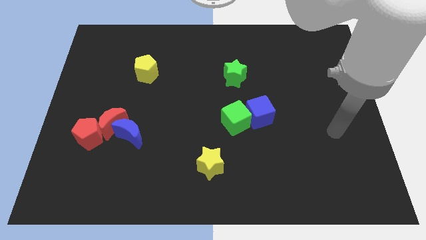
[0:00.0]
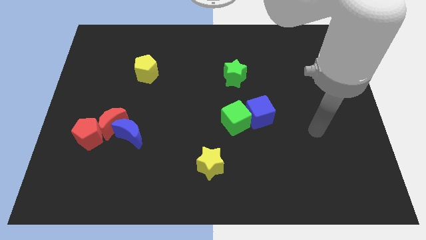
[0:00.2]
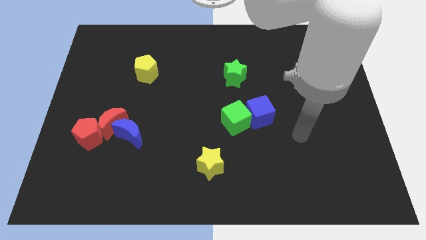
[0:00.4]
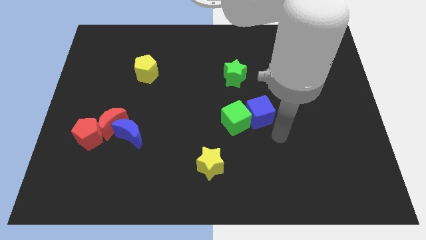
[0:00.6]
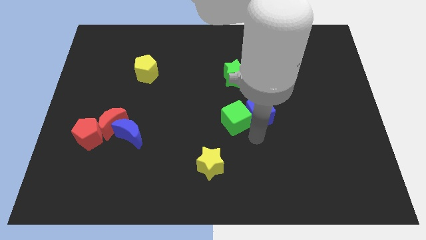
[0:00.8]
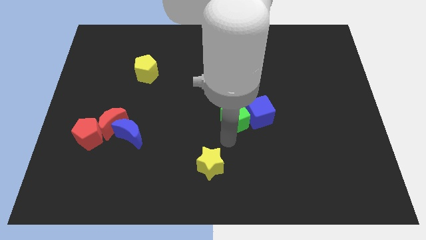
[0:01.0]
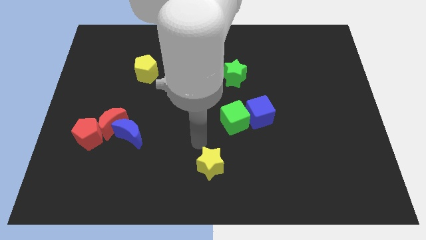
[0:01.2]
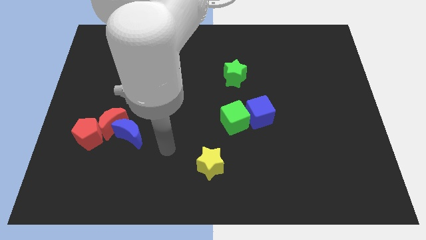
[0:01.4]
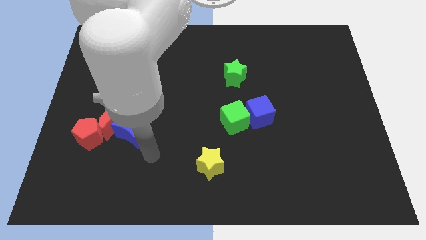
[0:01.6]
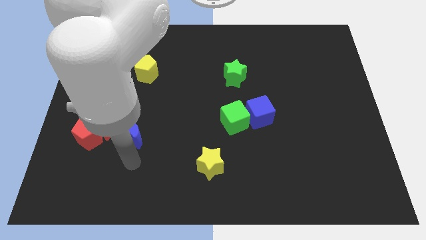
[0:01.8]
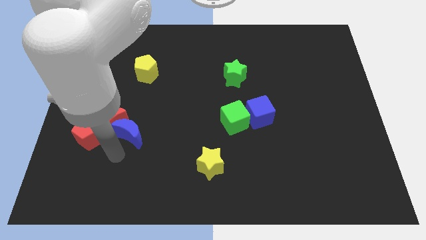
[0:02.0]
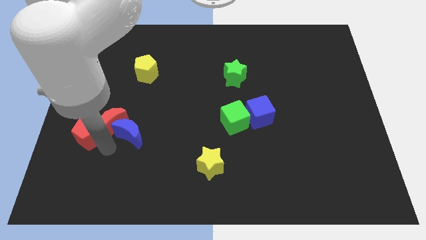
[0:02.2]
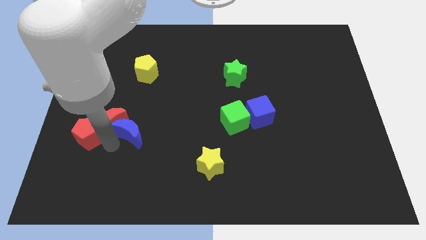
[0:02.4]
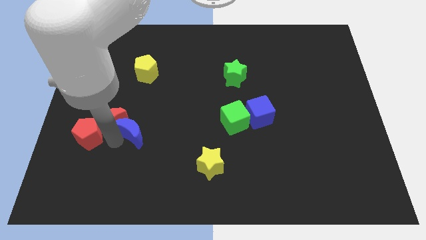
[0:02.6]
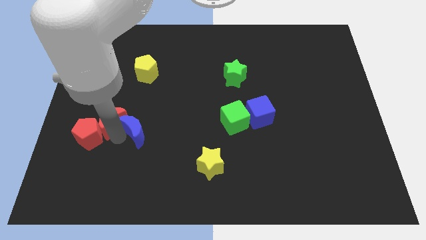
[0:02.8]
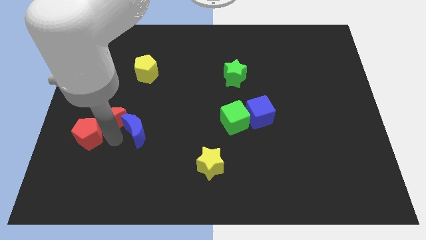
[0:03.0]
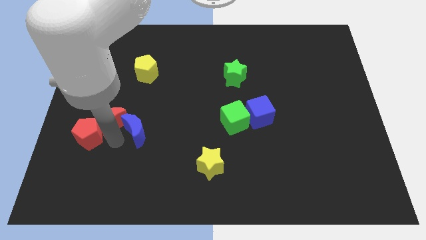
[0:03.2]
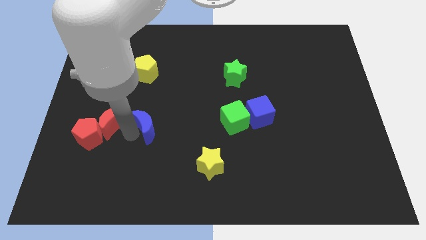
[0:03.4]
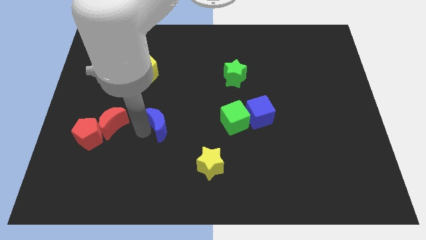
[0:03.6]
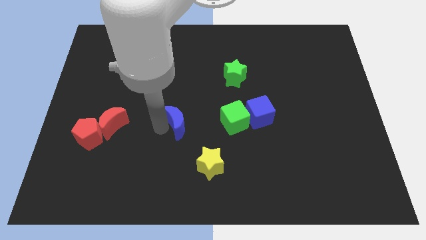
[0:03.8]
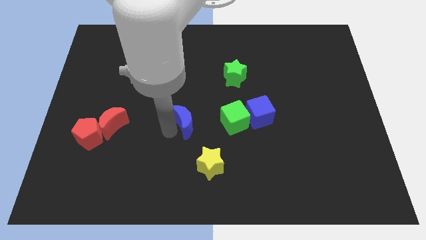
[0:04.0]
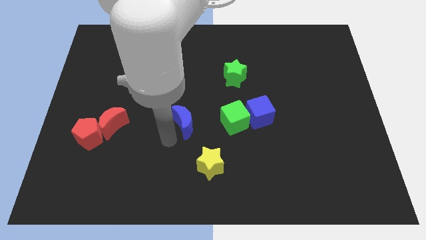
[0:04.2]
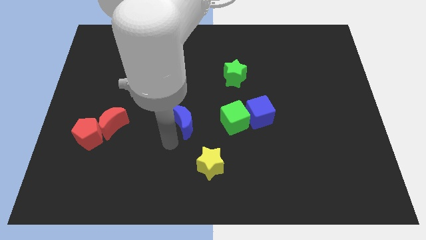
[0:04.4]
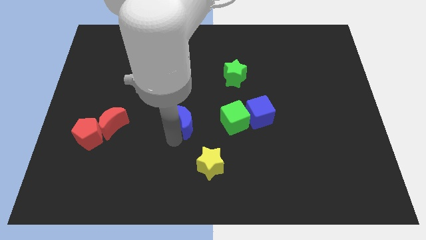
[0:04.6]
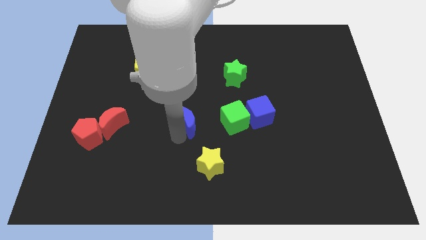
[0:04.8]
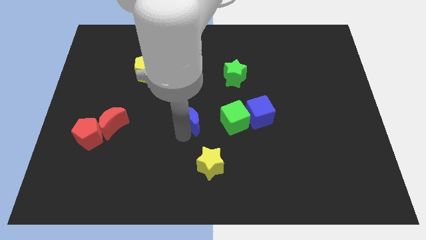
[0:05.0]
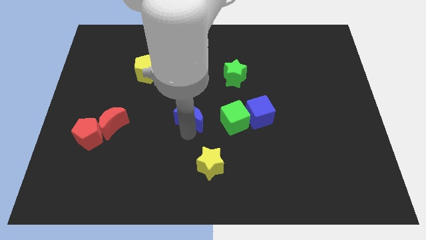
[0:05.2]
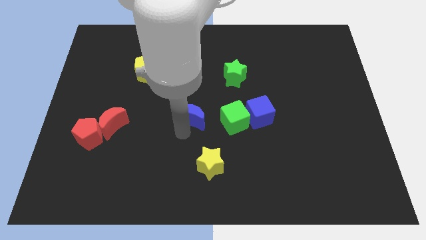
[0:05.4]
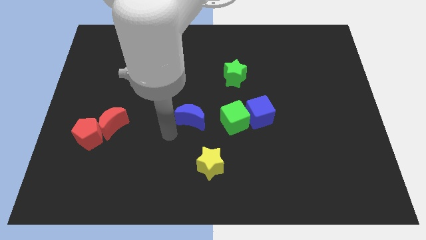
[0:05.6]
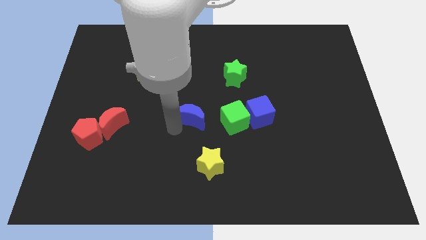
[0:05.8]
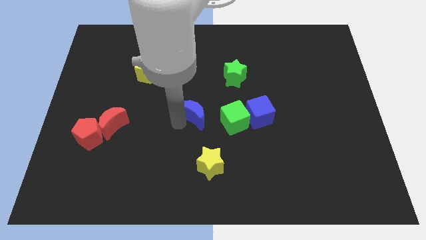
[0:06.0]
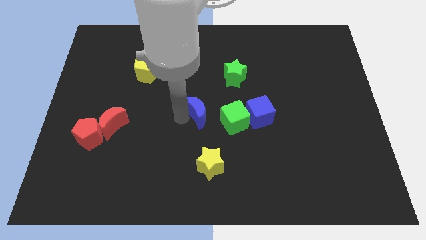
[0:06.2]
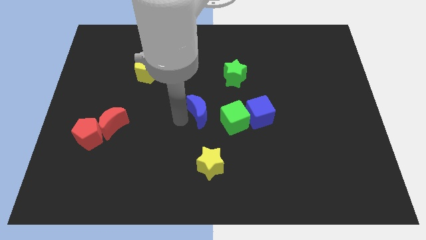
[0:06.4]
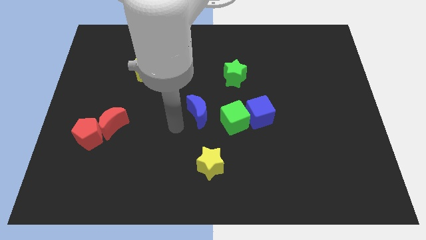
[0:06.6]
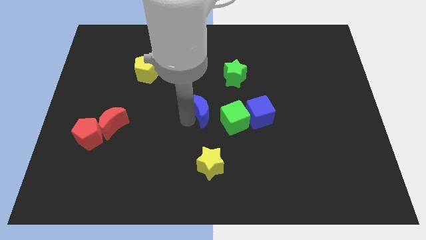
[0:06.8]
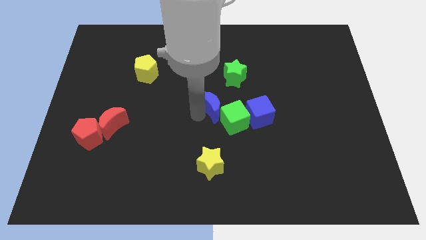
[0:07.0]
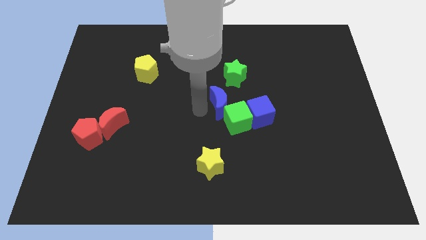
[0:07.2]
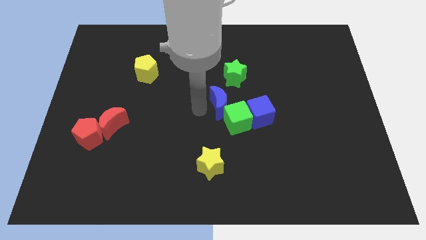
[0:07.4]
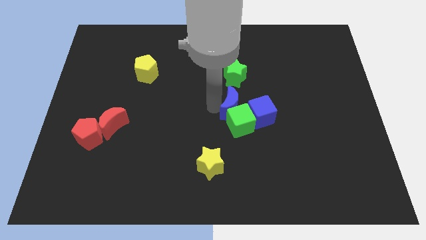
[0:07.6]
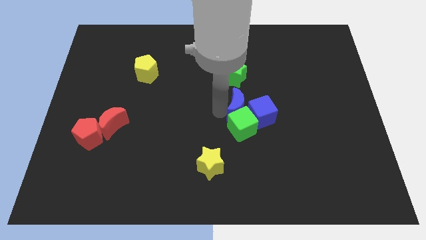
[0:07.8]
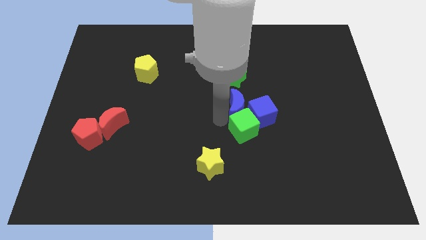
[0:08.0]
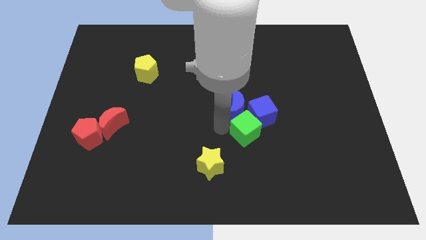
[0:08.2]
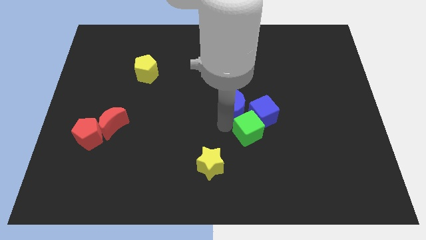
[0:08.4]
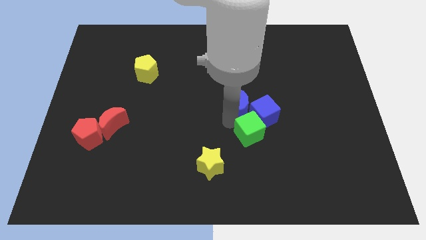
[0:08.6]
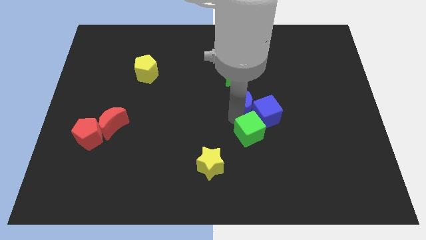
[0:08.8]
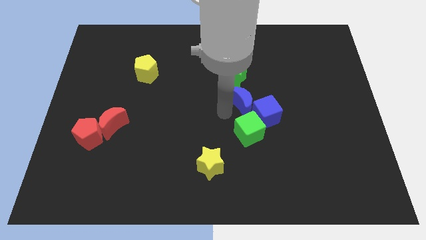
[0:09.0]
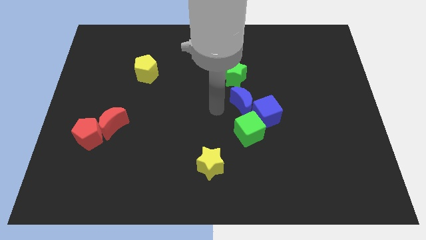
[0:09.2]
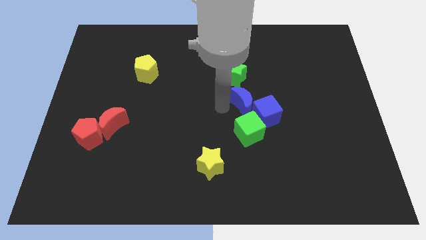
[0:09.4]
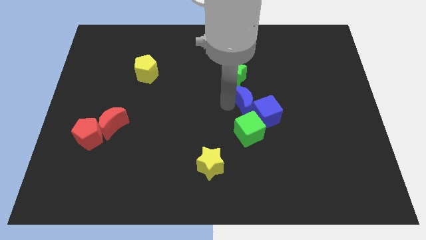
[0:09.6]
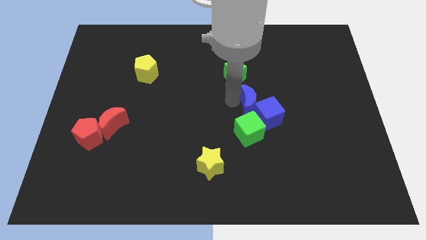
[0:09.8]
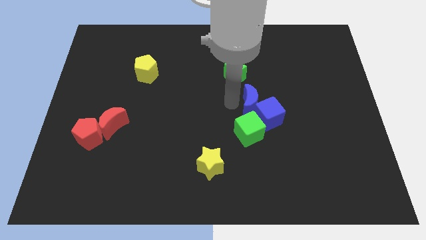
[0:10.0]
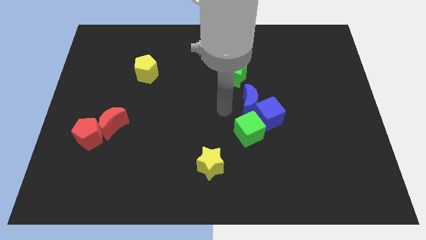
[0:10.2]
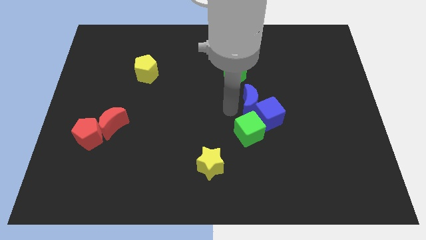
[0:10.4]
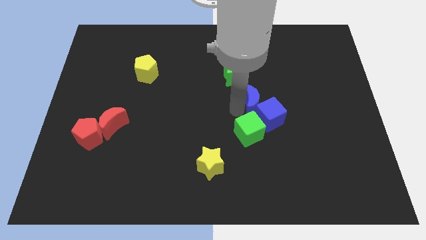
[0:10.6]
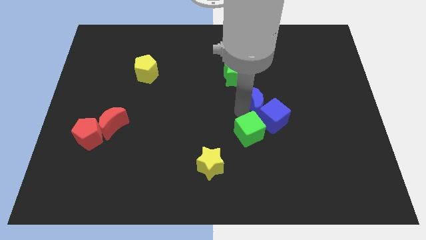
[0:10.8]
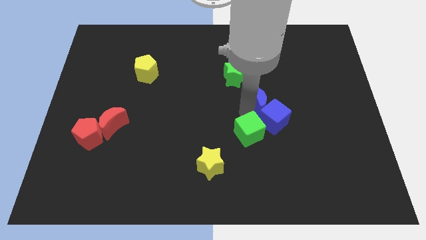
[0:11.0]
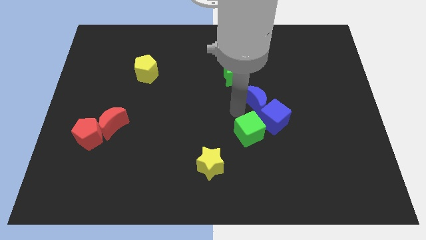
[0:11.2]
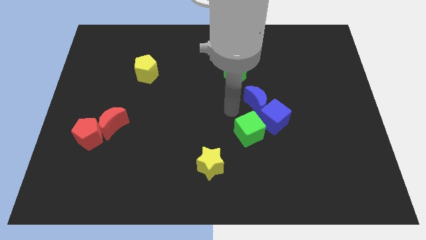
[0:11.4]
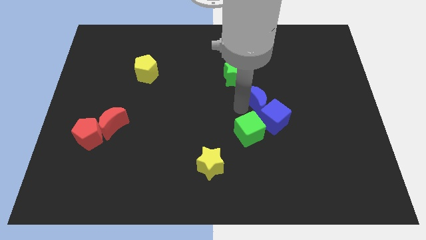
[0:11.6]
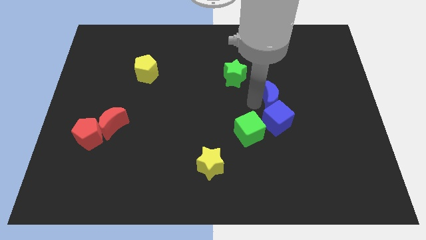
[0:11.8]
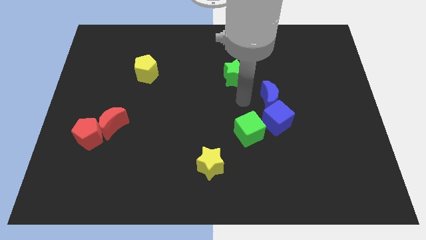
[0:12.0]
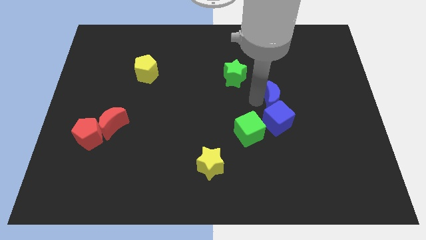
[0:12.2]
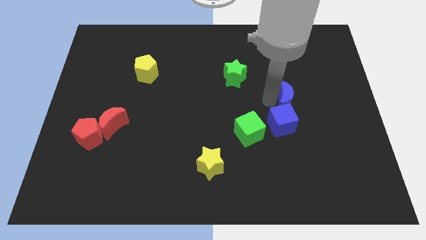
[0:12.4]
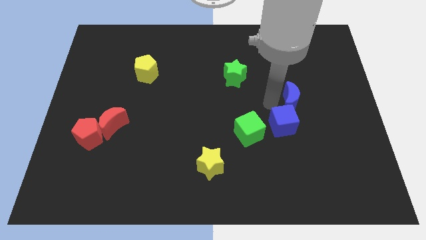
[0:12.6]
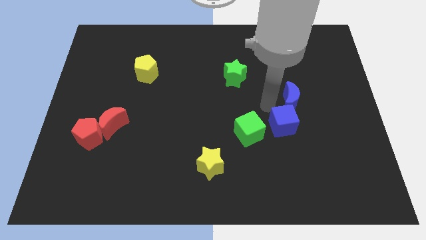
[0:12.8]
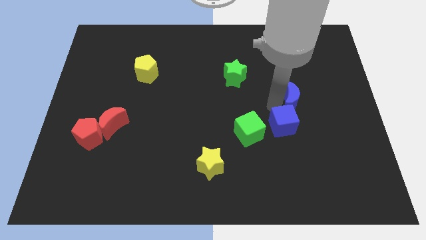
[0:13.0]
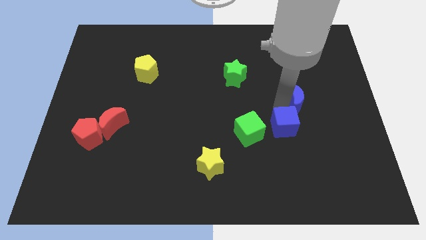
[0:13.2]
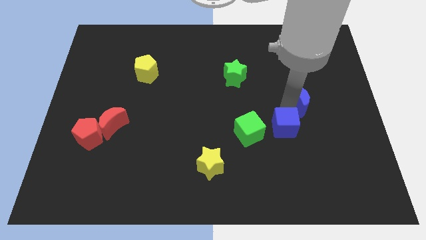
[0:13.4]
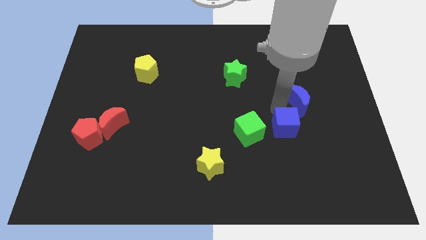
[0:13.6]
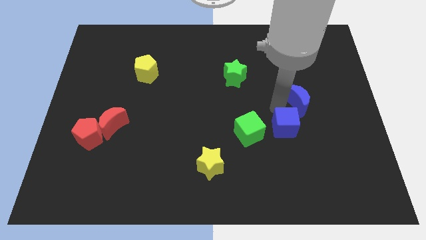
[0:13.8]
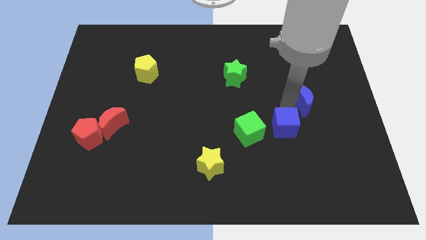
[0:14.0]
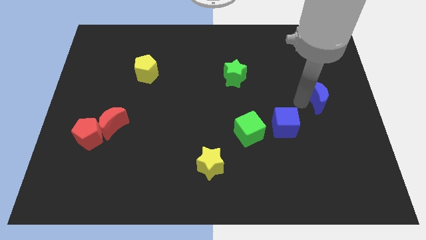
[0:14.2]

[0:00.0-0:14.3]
move the blue moon to the center right
